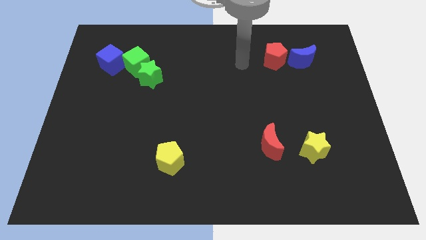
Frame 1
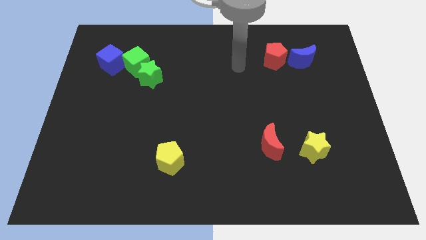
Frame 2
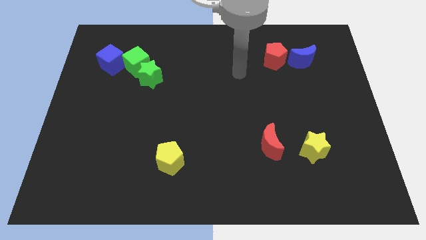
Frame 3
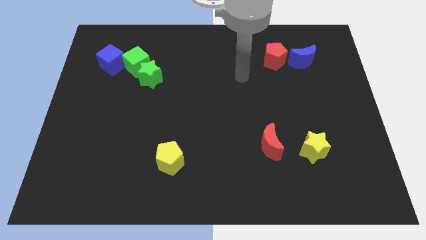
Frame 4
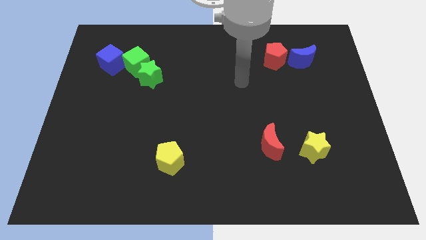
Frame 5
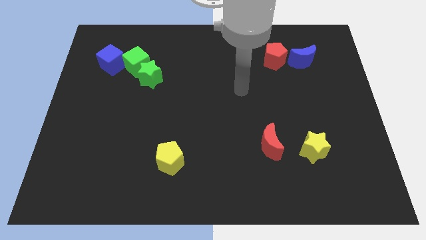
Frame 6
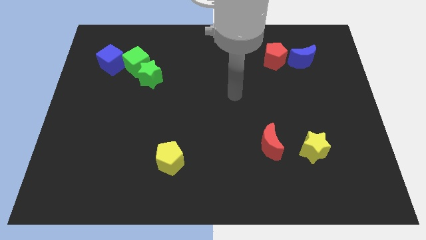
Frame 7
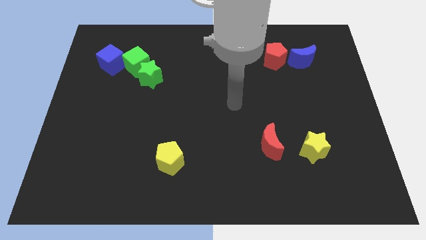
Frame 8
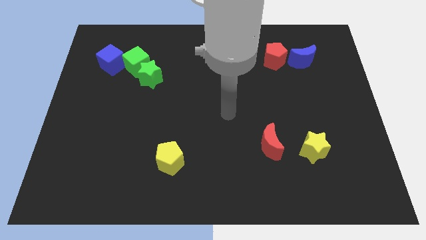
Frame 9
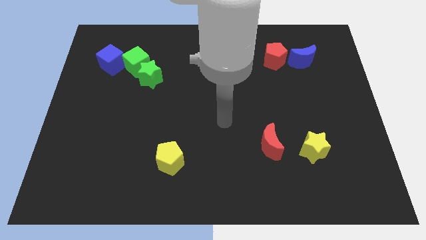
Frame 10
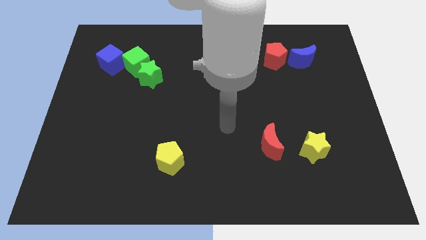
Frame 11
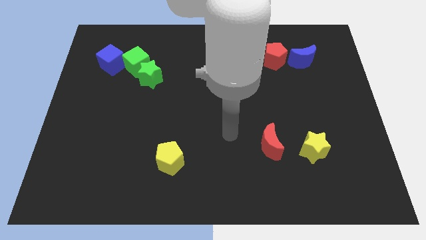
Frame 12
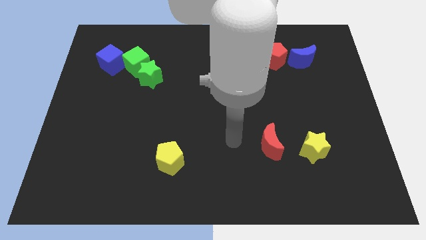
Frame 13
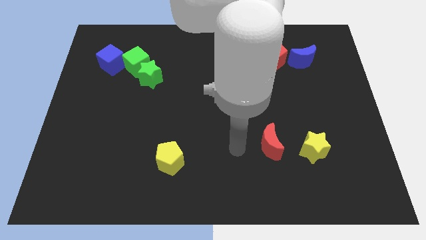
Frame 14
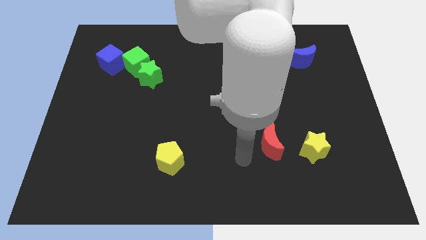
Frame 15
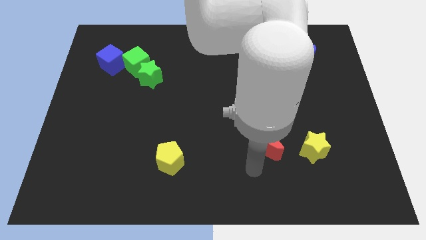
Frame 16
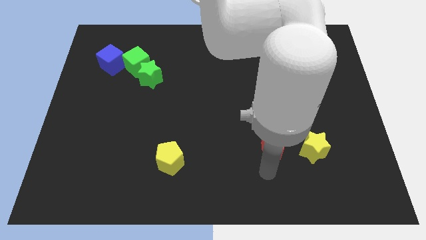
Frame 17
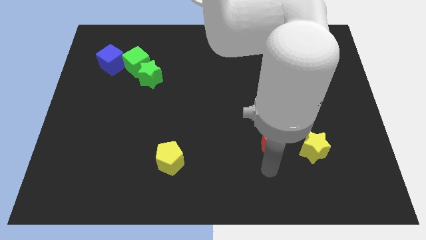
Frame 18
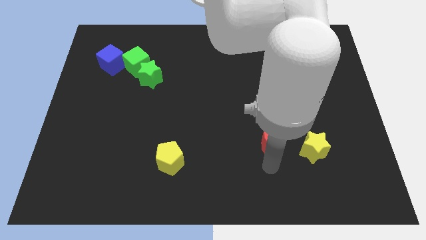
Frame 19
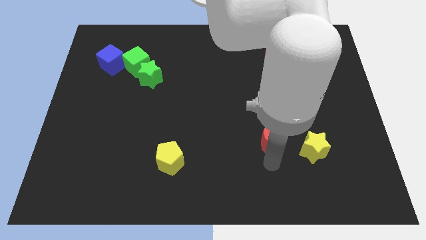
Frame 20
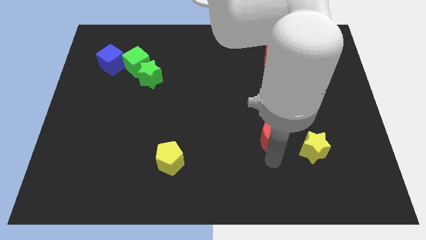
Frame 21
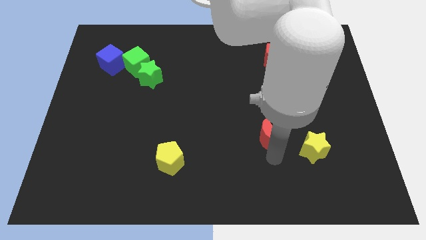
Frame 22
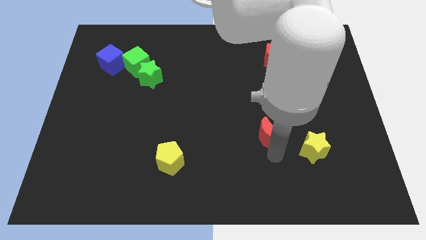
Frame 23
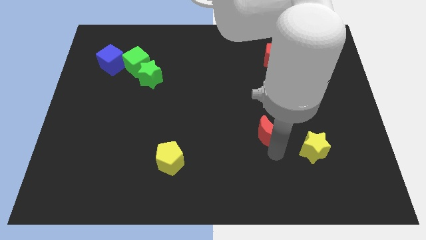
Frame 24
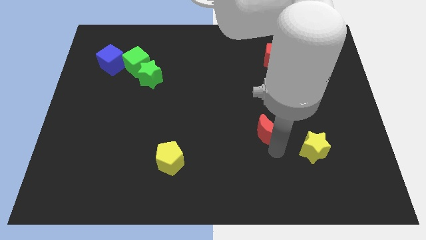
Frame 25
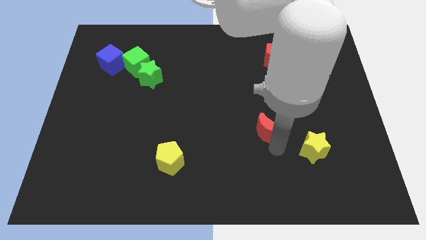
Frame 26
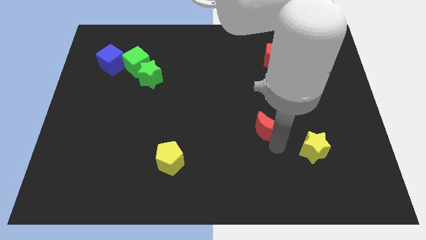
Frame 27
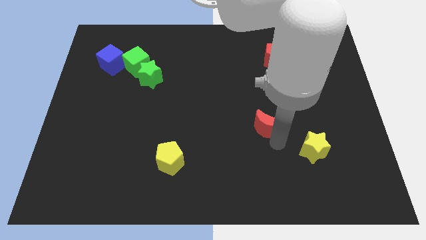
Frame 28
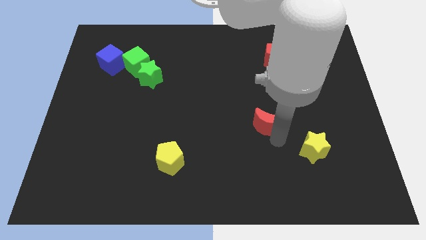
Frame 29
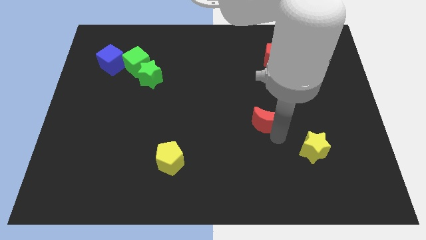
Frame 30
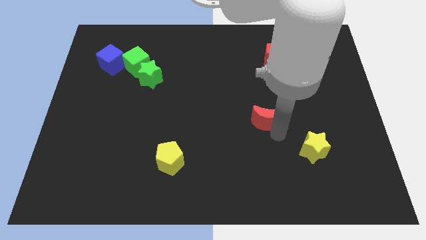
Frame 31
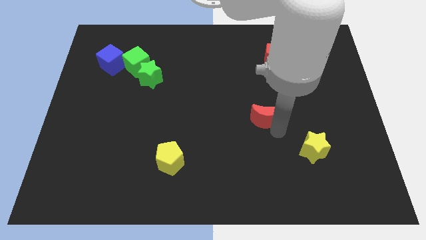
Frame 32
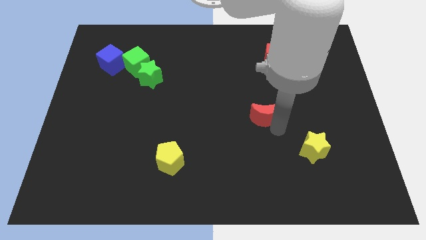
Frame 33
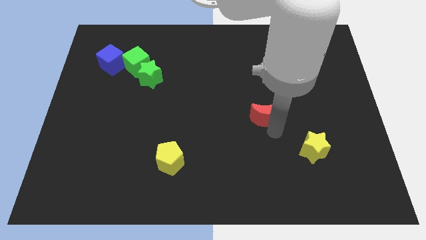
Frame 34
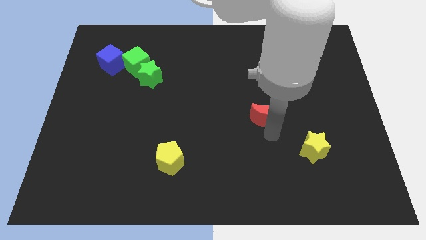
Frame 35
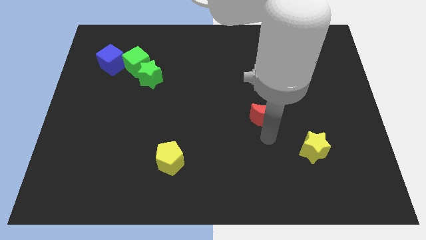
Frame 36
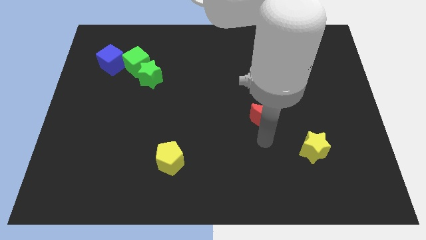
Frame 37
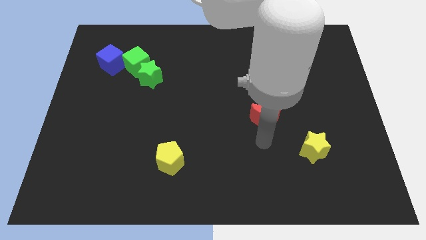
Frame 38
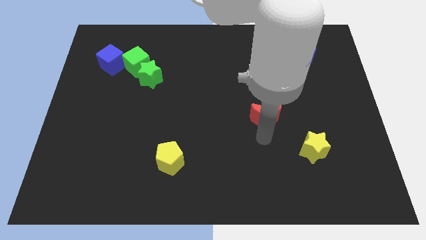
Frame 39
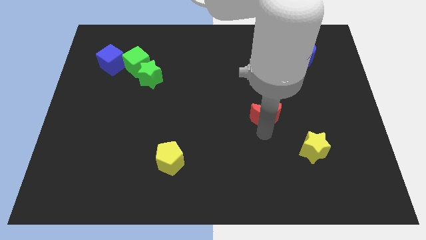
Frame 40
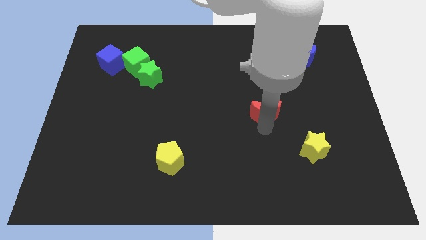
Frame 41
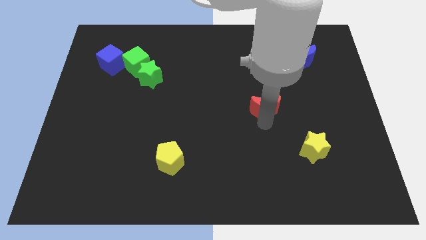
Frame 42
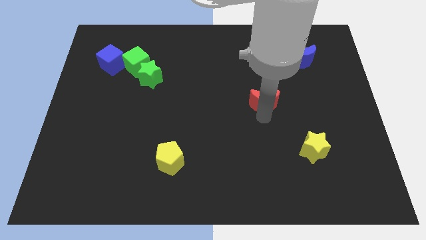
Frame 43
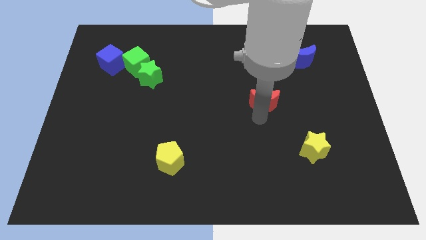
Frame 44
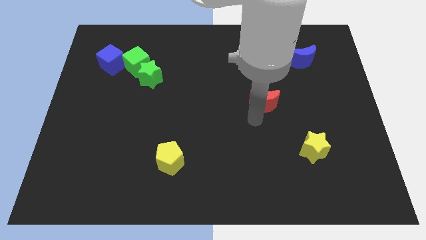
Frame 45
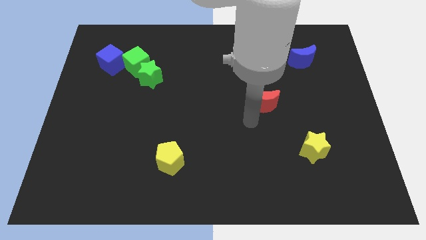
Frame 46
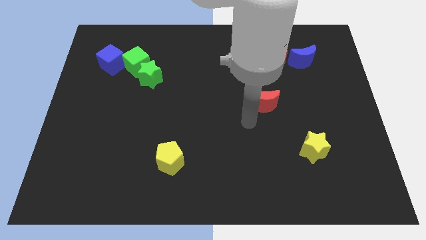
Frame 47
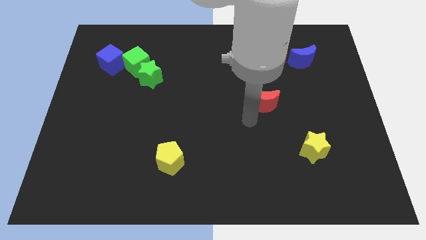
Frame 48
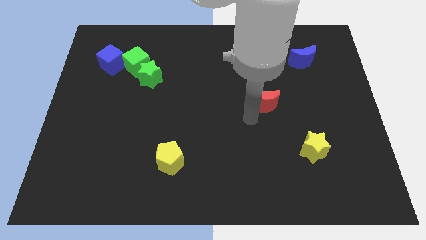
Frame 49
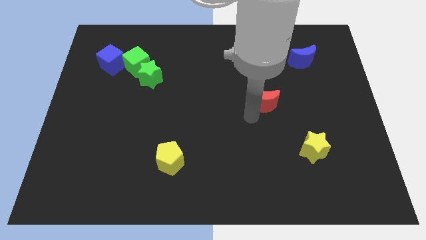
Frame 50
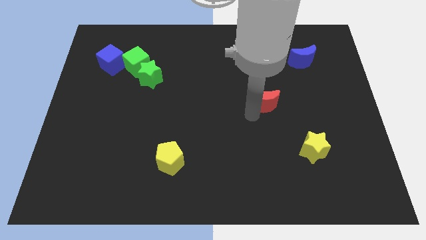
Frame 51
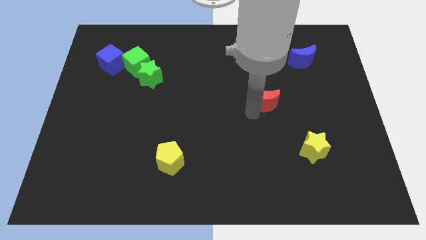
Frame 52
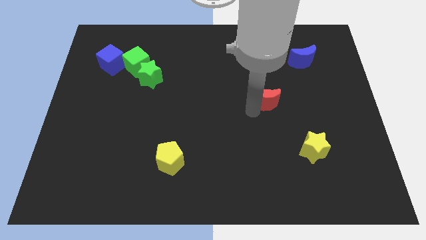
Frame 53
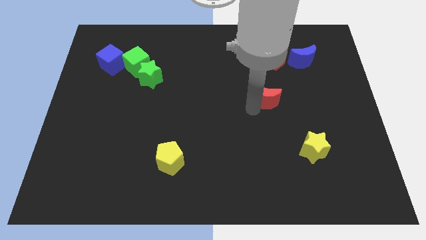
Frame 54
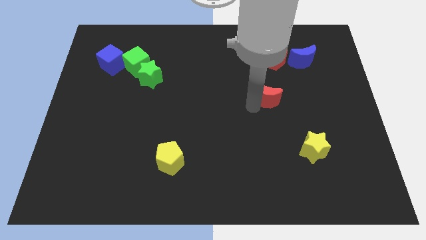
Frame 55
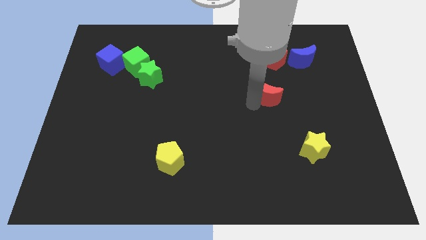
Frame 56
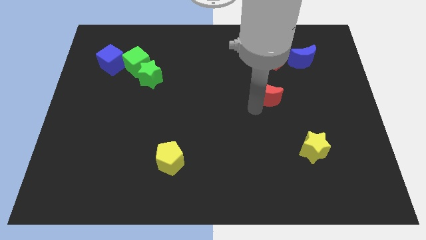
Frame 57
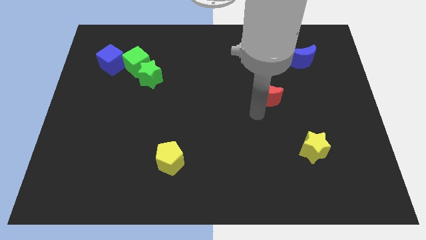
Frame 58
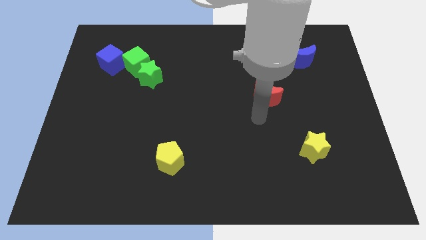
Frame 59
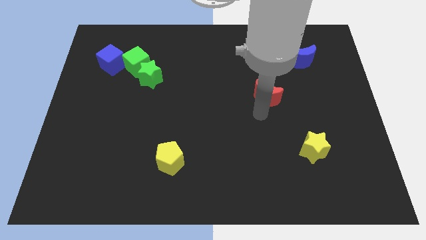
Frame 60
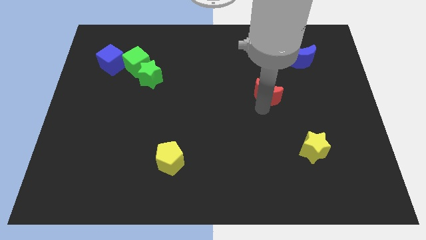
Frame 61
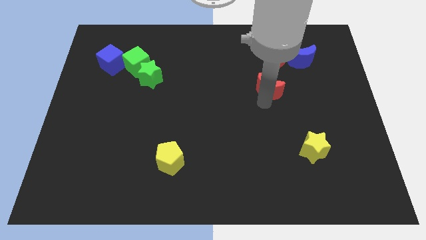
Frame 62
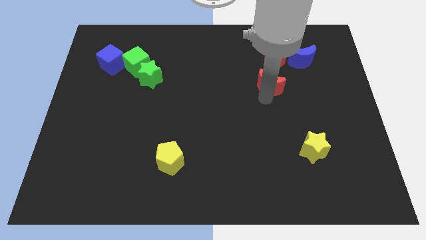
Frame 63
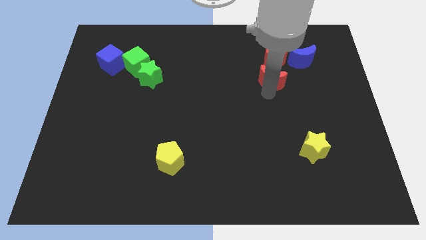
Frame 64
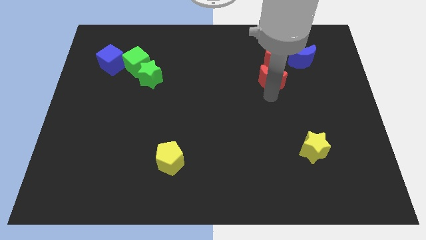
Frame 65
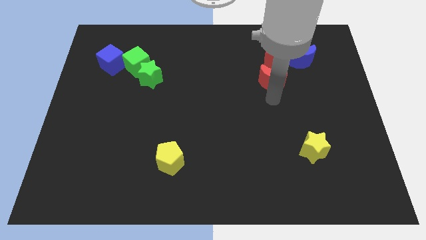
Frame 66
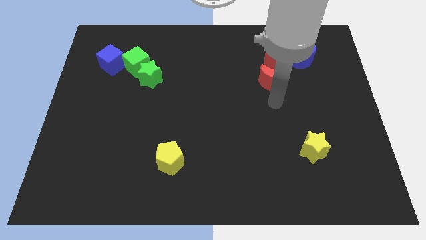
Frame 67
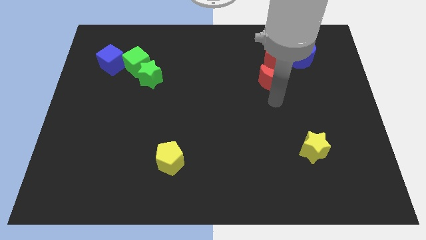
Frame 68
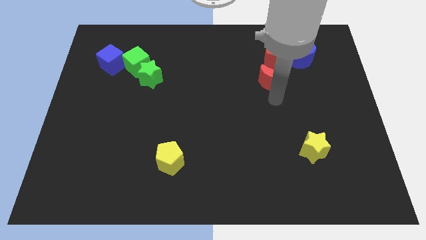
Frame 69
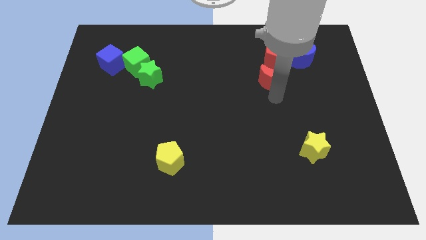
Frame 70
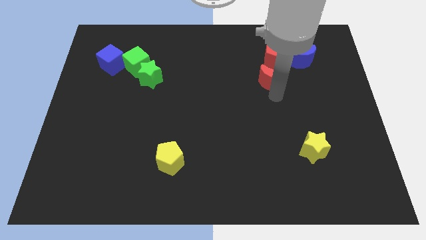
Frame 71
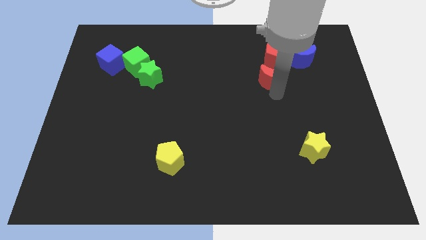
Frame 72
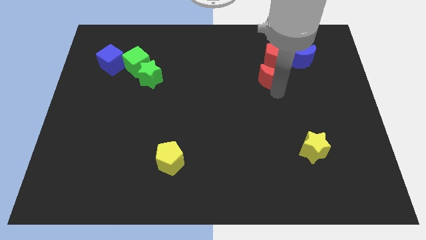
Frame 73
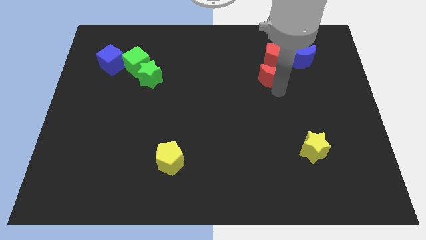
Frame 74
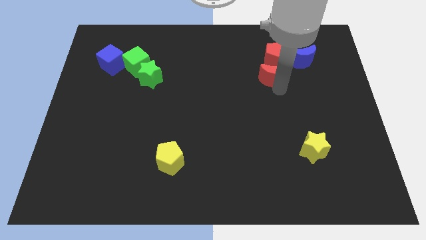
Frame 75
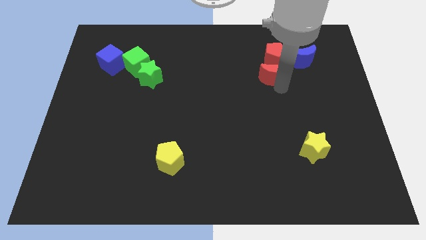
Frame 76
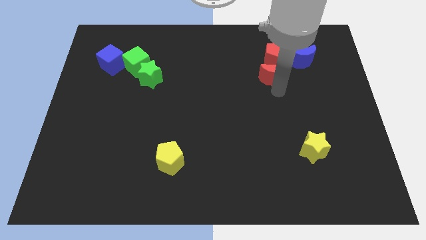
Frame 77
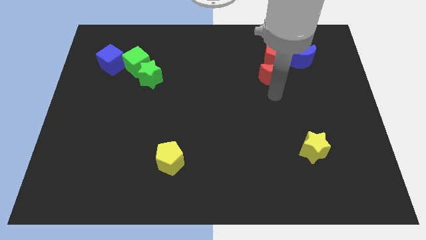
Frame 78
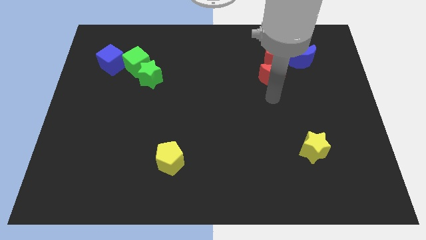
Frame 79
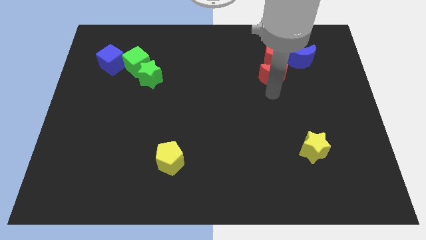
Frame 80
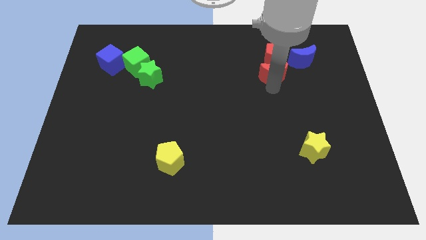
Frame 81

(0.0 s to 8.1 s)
push the red moon close to the red pentagon
